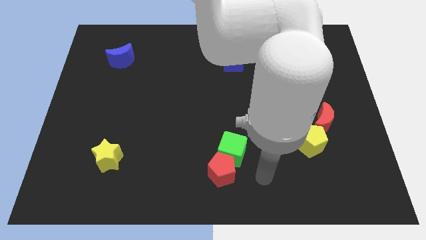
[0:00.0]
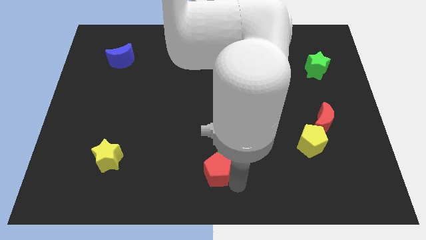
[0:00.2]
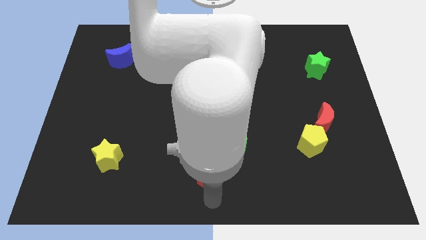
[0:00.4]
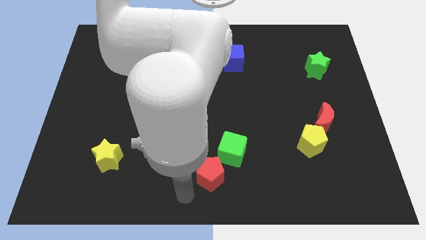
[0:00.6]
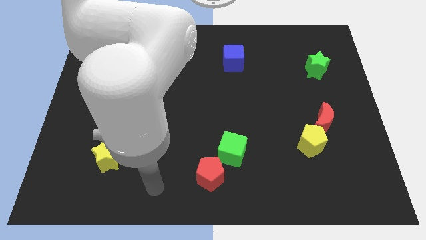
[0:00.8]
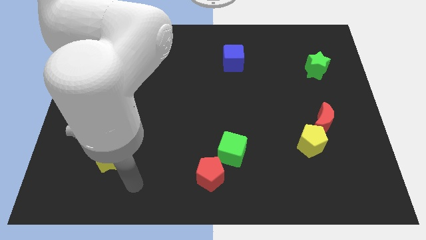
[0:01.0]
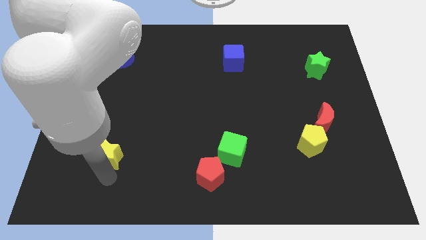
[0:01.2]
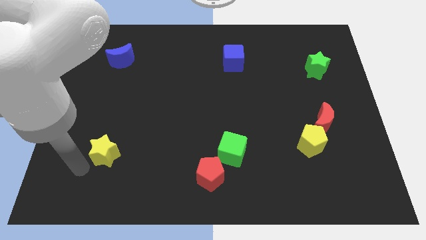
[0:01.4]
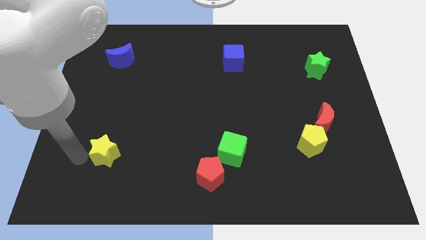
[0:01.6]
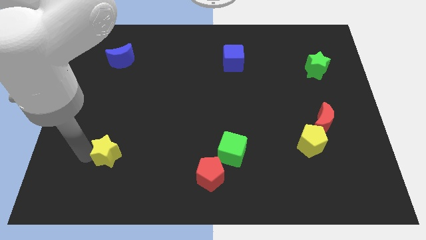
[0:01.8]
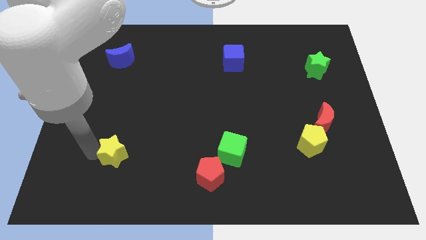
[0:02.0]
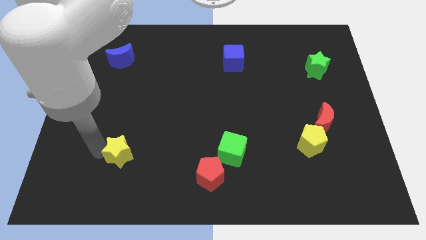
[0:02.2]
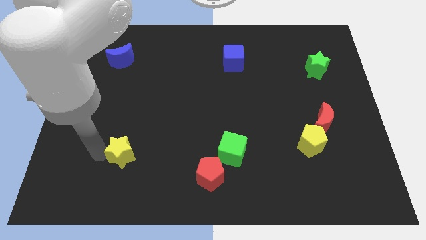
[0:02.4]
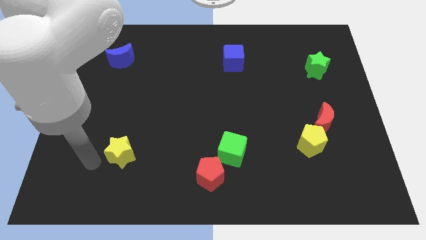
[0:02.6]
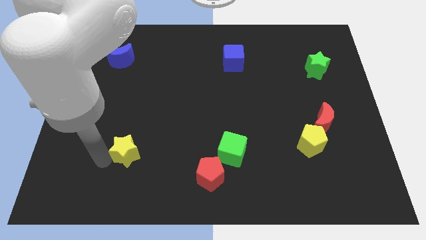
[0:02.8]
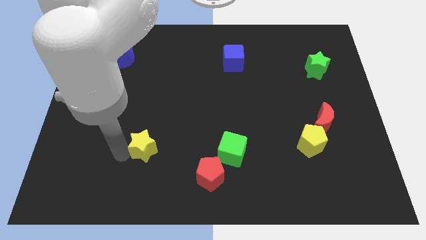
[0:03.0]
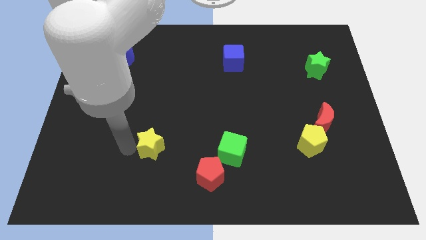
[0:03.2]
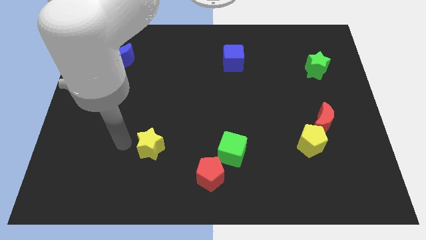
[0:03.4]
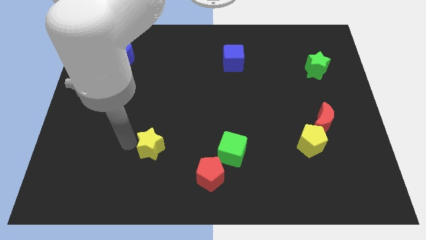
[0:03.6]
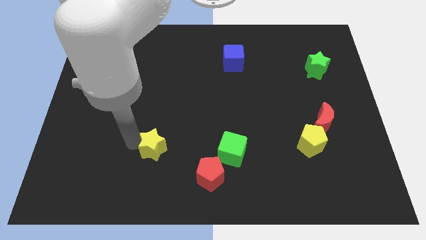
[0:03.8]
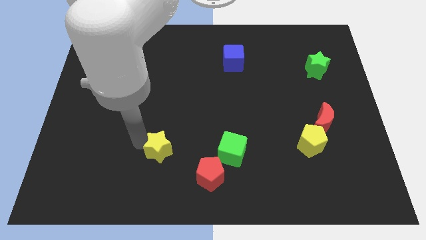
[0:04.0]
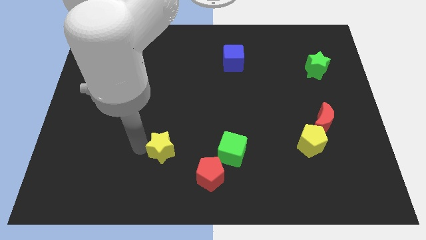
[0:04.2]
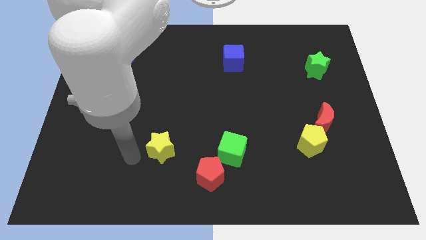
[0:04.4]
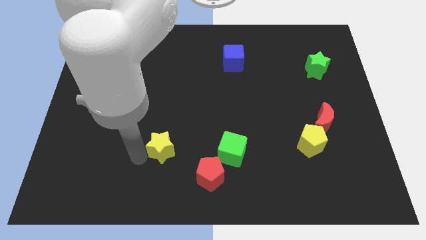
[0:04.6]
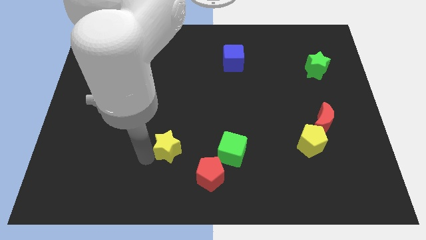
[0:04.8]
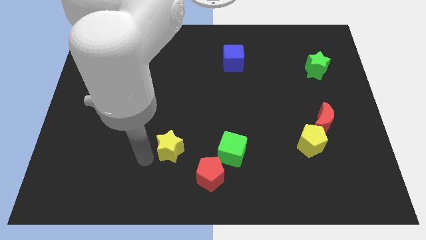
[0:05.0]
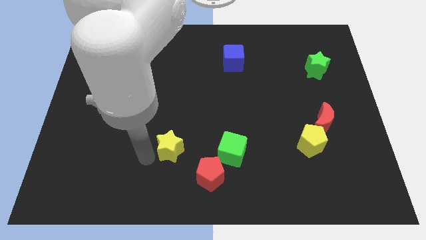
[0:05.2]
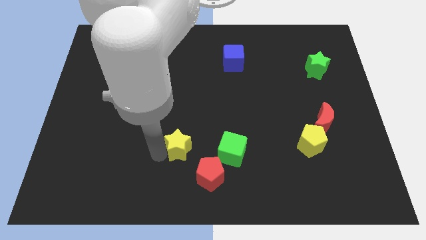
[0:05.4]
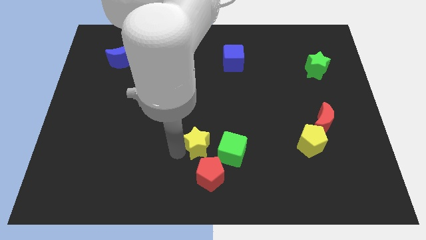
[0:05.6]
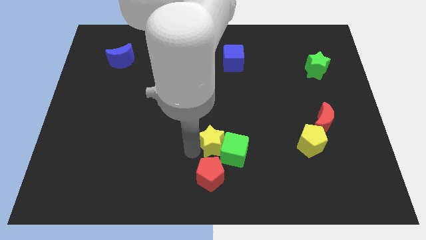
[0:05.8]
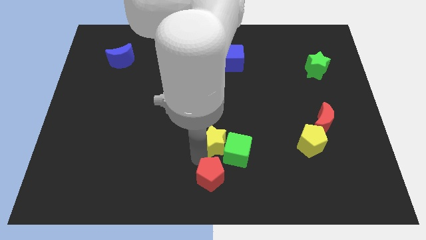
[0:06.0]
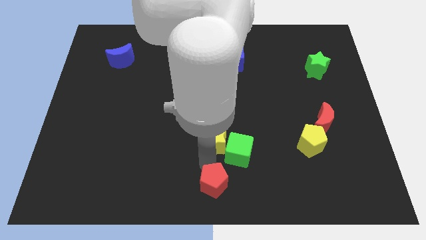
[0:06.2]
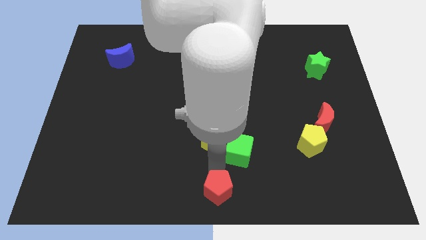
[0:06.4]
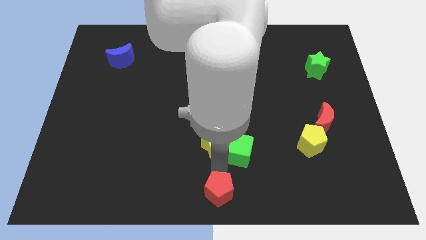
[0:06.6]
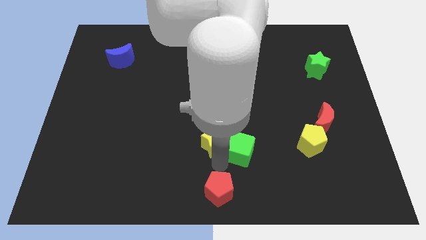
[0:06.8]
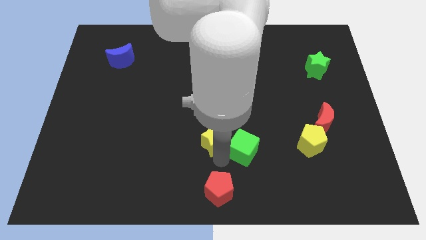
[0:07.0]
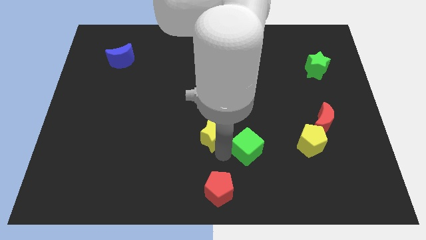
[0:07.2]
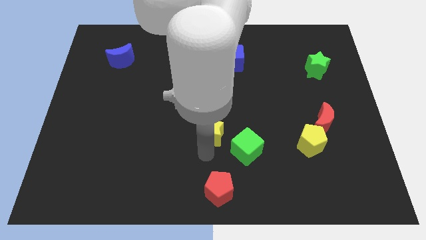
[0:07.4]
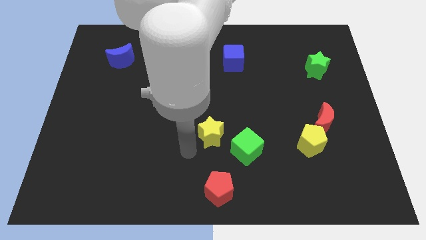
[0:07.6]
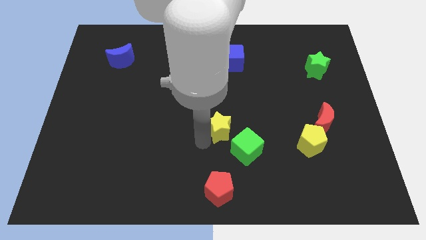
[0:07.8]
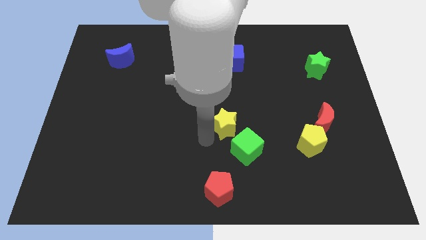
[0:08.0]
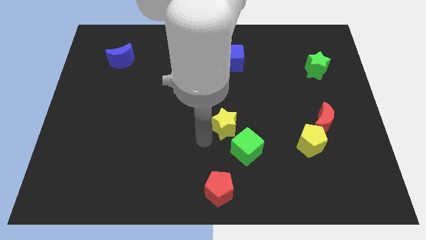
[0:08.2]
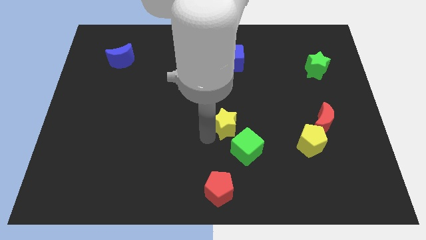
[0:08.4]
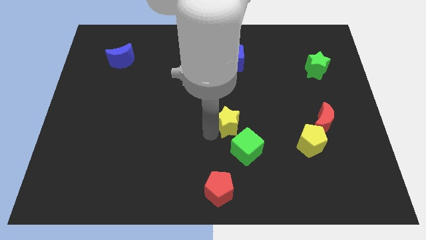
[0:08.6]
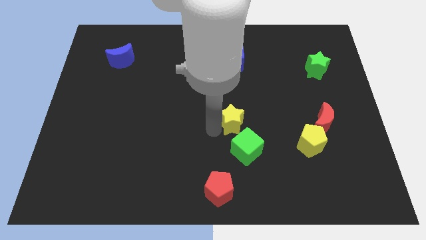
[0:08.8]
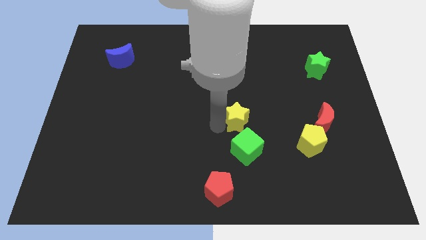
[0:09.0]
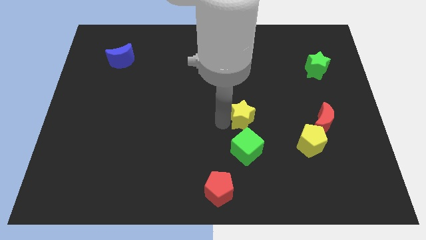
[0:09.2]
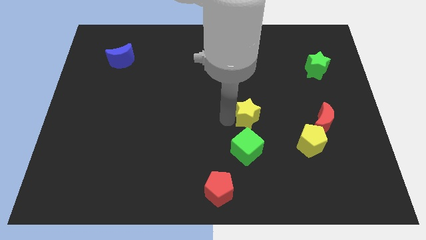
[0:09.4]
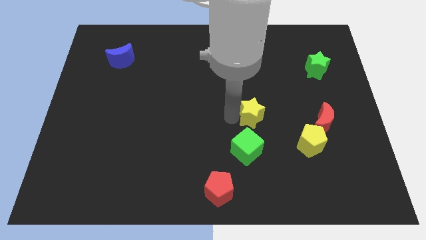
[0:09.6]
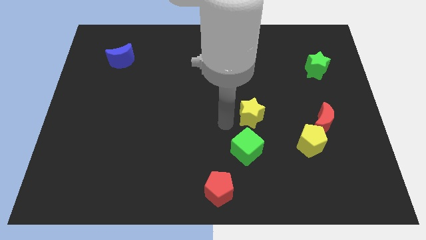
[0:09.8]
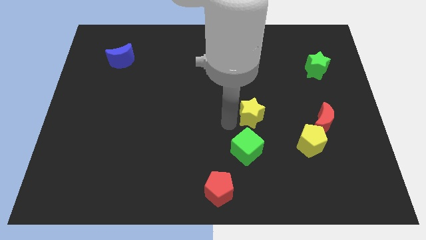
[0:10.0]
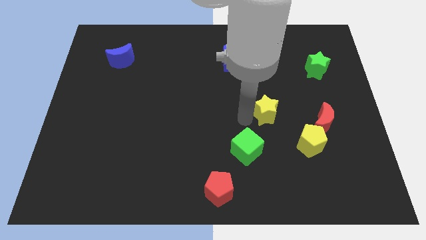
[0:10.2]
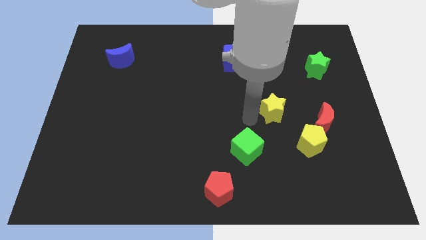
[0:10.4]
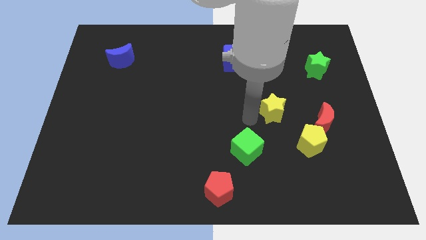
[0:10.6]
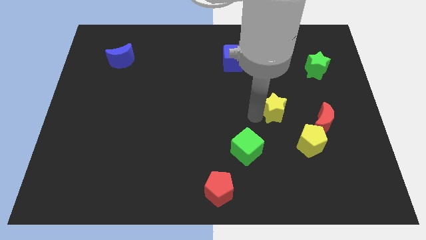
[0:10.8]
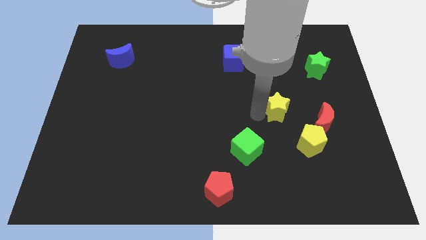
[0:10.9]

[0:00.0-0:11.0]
slide the yellow star to the top left of the red moon

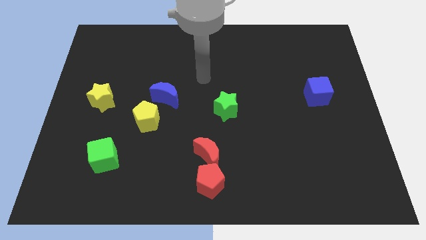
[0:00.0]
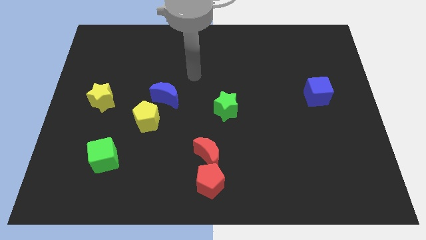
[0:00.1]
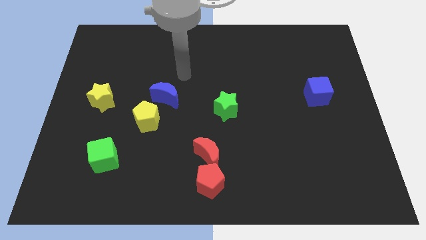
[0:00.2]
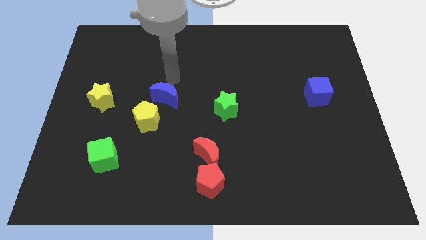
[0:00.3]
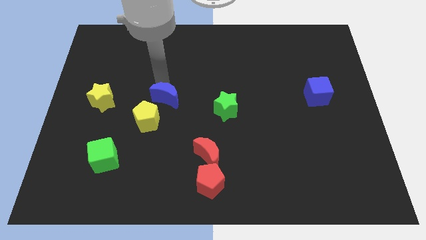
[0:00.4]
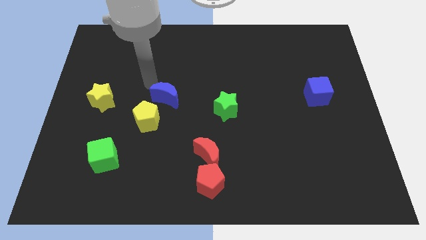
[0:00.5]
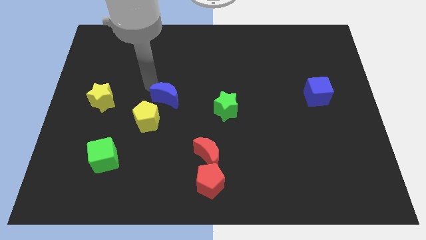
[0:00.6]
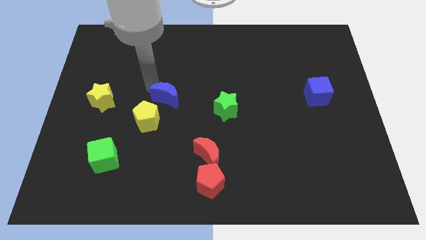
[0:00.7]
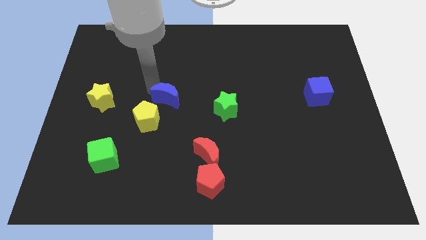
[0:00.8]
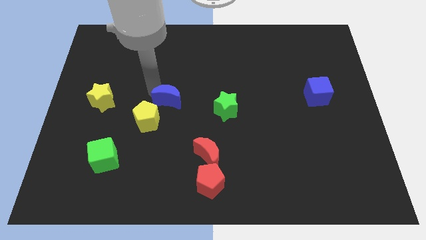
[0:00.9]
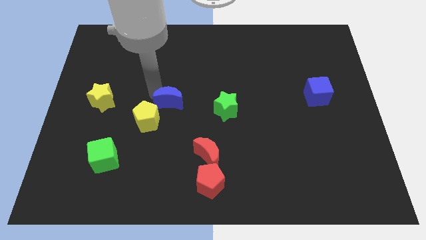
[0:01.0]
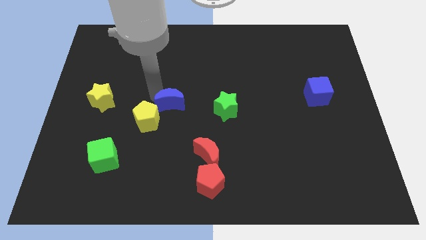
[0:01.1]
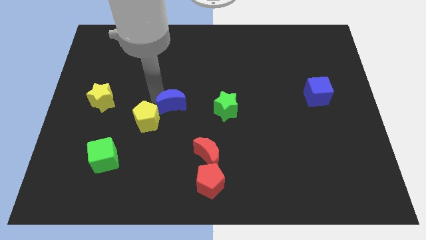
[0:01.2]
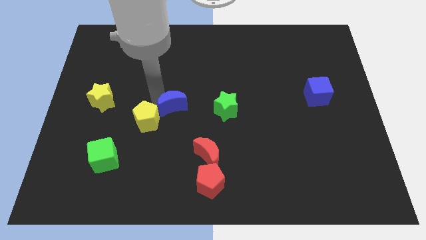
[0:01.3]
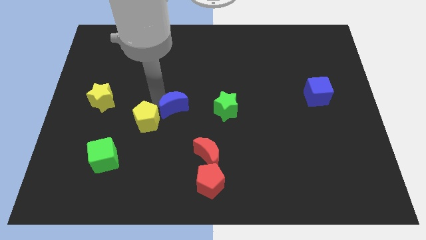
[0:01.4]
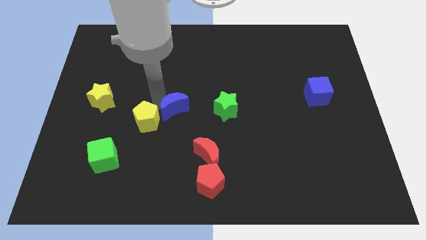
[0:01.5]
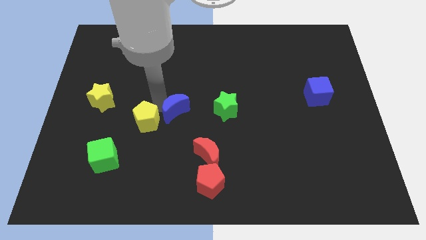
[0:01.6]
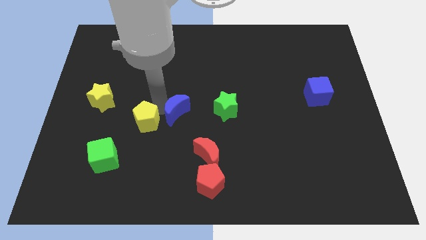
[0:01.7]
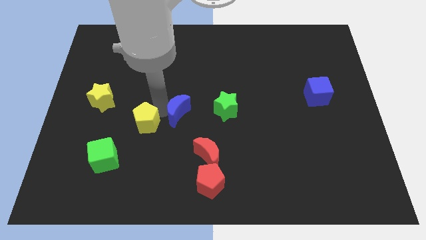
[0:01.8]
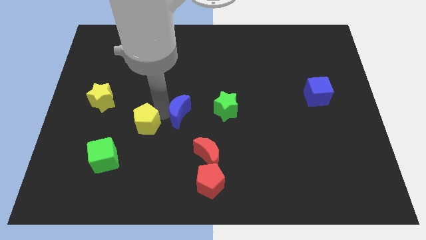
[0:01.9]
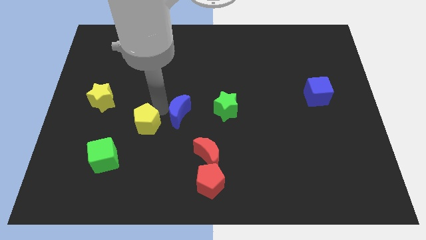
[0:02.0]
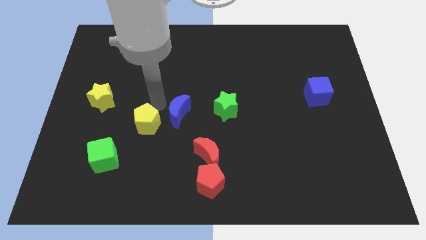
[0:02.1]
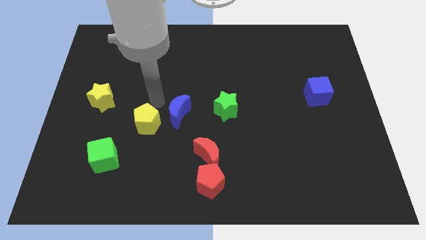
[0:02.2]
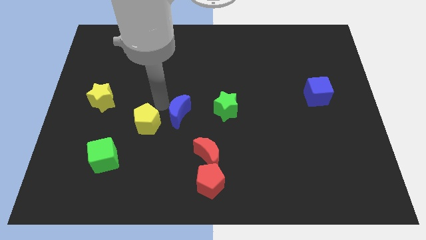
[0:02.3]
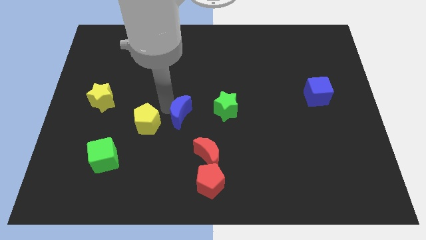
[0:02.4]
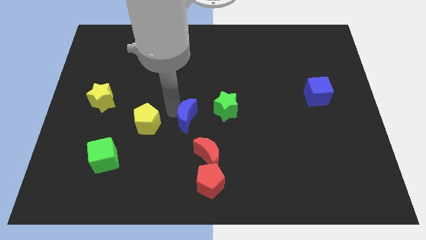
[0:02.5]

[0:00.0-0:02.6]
move the blue moon to the bottom left of the green star
